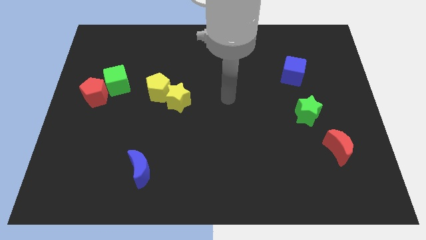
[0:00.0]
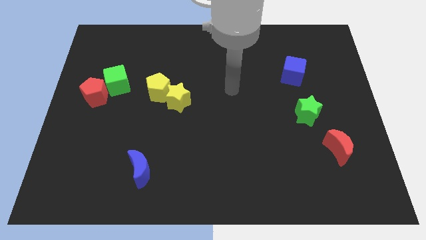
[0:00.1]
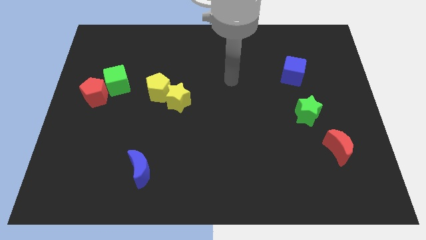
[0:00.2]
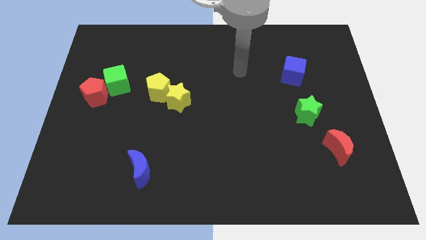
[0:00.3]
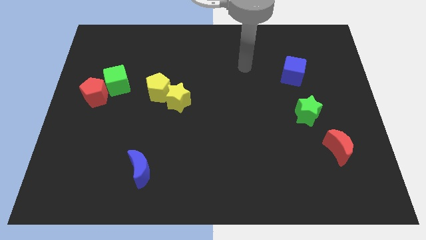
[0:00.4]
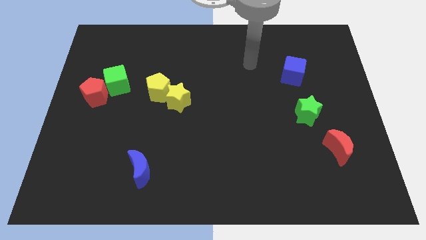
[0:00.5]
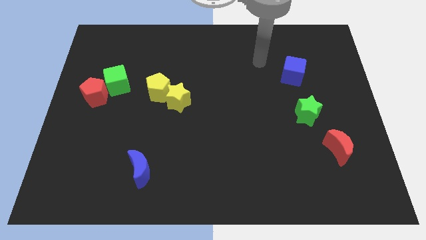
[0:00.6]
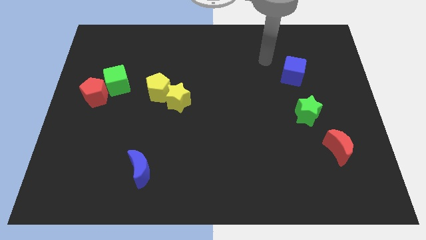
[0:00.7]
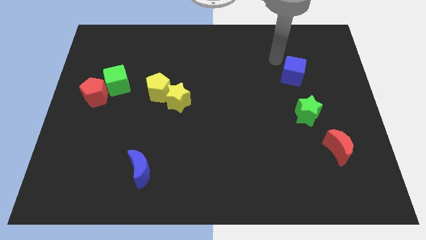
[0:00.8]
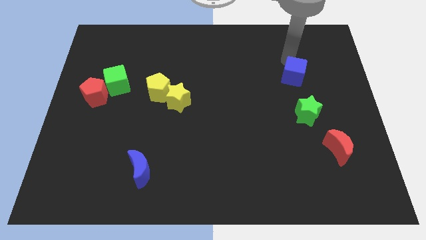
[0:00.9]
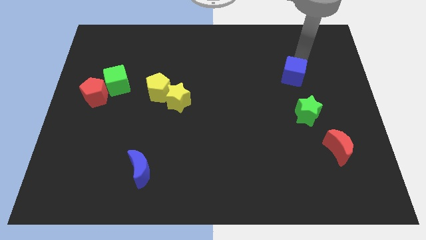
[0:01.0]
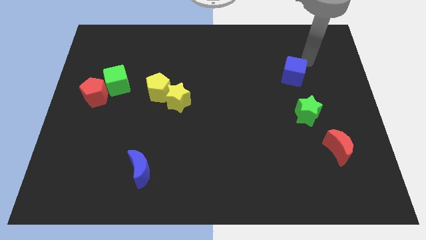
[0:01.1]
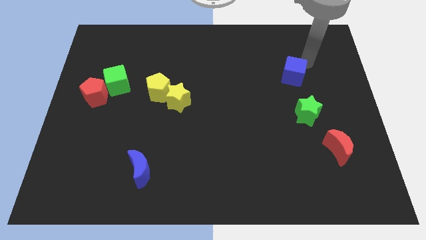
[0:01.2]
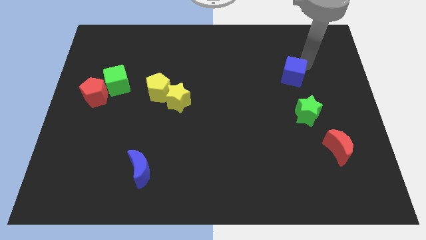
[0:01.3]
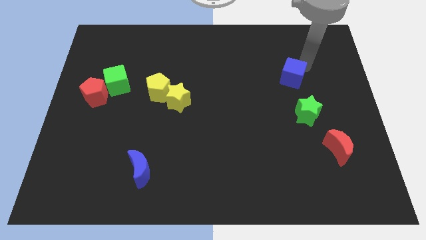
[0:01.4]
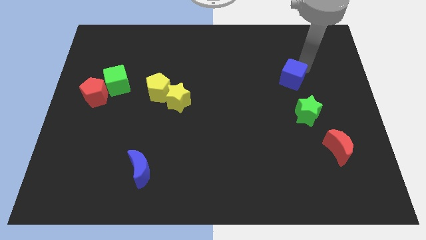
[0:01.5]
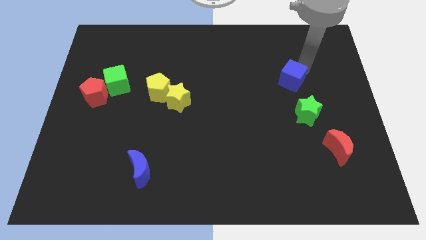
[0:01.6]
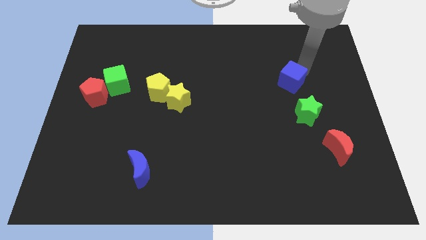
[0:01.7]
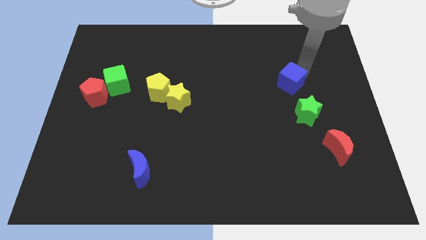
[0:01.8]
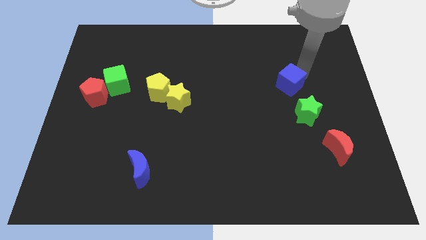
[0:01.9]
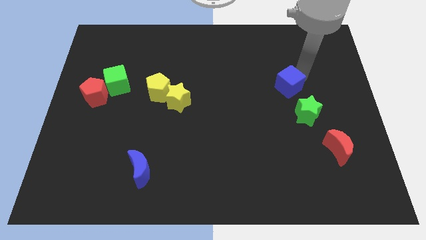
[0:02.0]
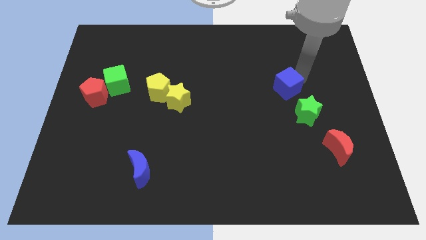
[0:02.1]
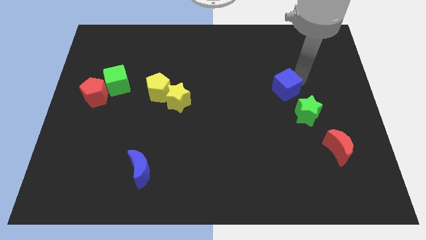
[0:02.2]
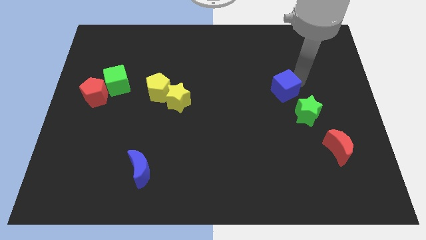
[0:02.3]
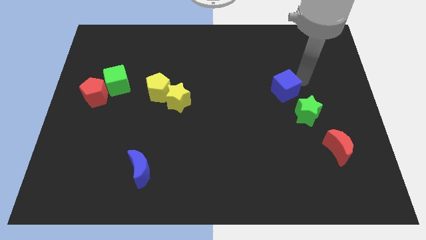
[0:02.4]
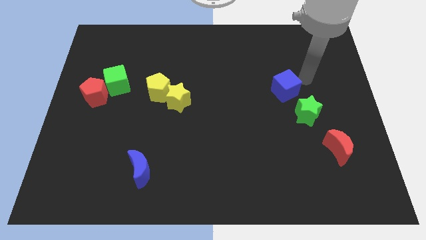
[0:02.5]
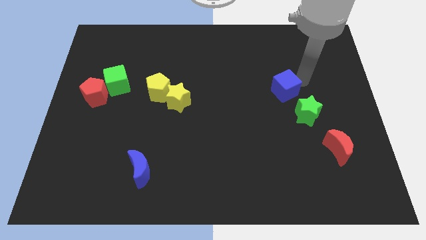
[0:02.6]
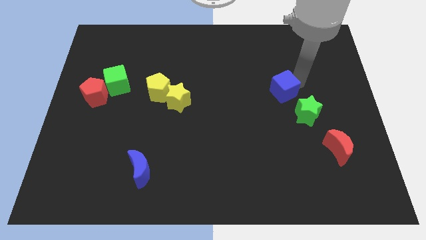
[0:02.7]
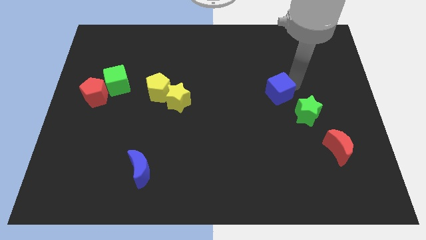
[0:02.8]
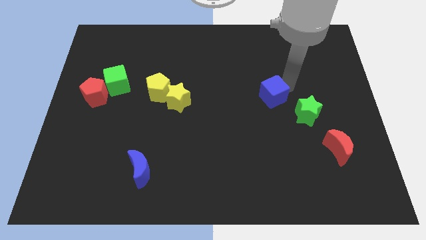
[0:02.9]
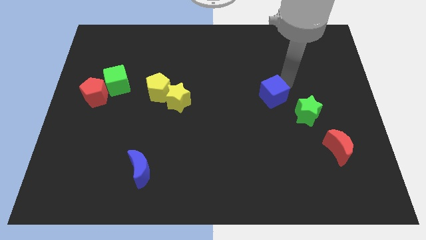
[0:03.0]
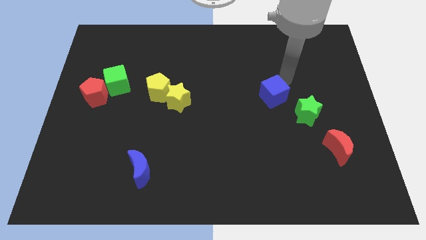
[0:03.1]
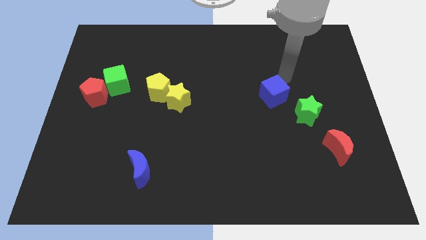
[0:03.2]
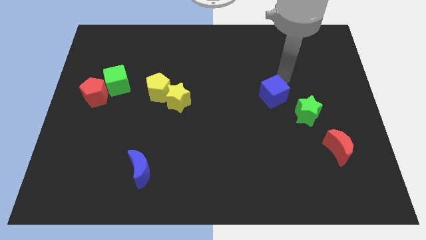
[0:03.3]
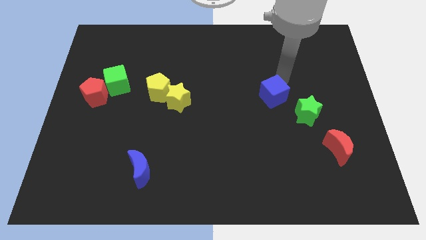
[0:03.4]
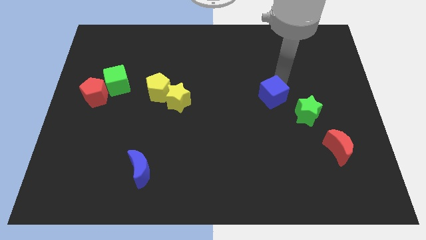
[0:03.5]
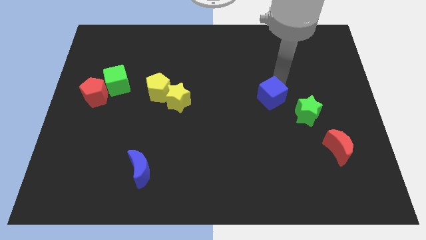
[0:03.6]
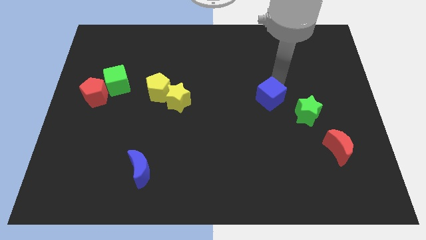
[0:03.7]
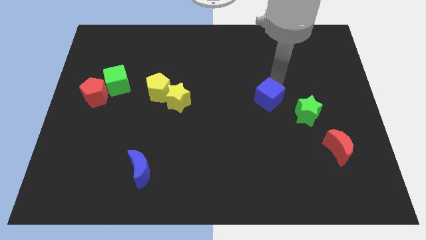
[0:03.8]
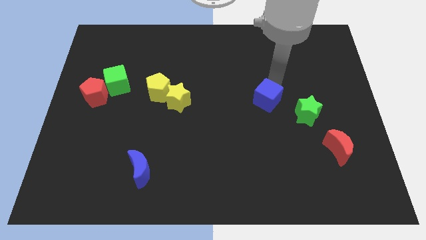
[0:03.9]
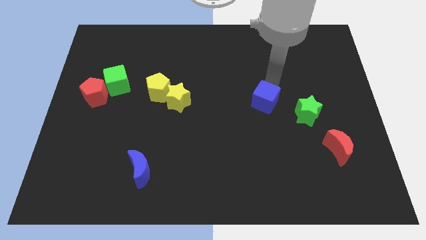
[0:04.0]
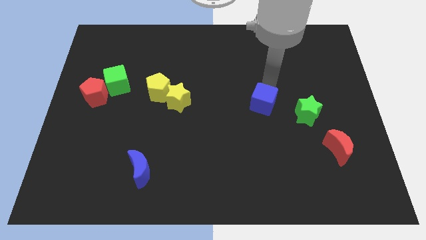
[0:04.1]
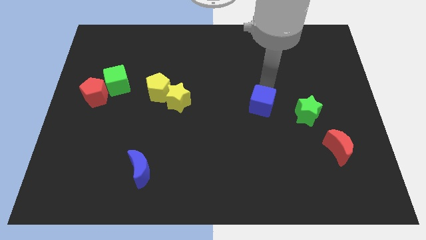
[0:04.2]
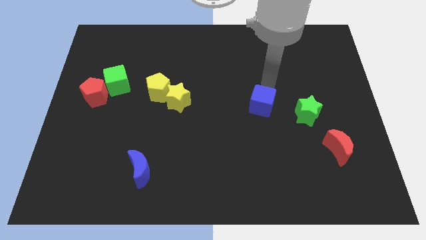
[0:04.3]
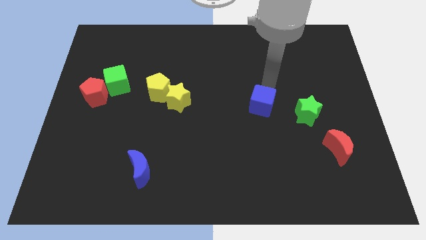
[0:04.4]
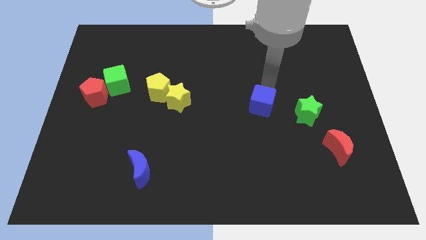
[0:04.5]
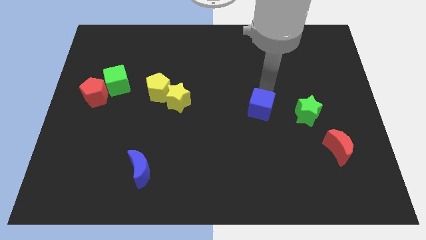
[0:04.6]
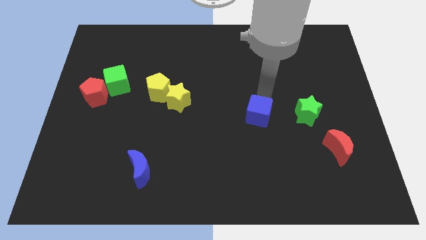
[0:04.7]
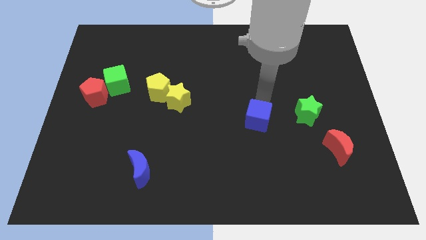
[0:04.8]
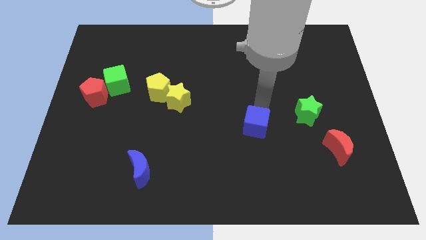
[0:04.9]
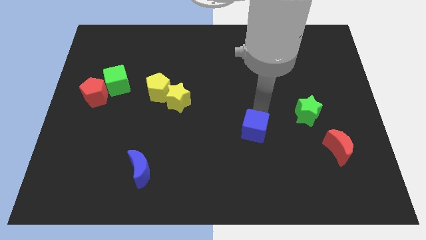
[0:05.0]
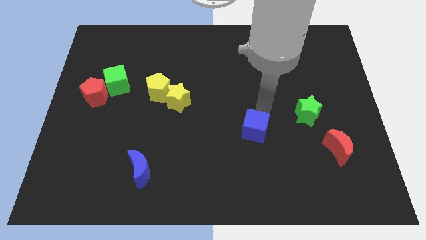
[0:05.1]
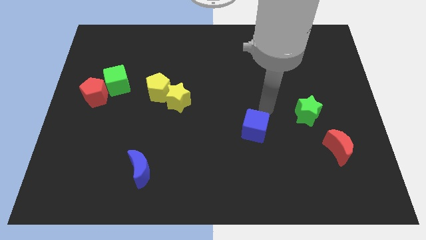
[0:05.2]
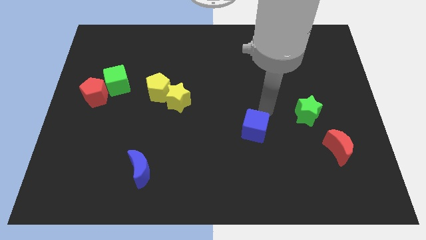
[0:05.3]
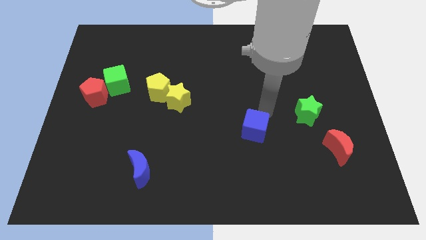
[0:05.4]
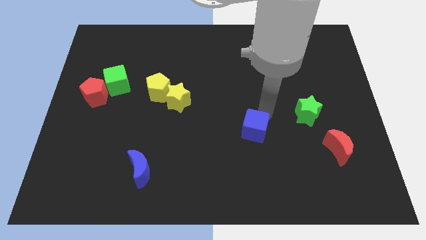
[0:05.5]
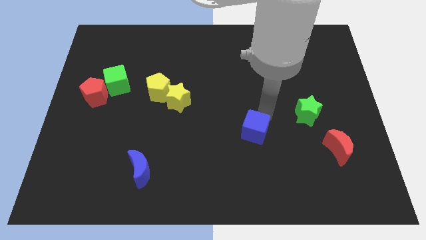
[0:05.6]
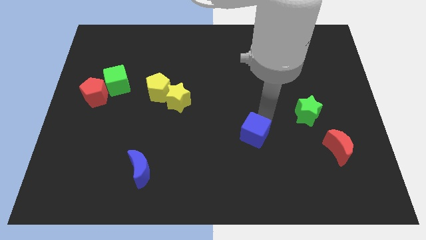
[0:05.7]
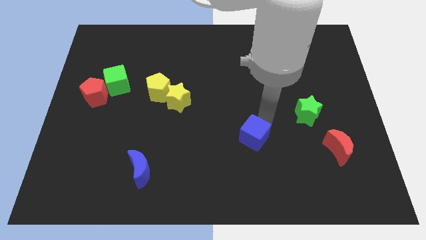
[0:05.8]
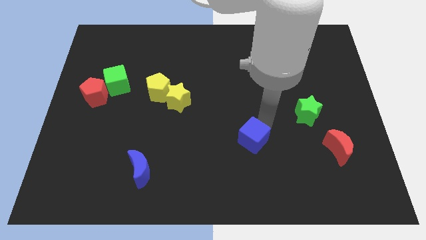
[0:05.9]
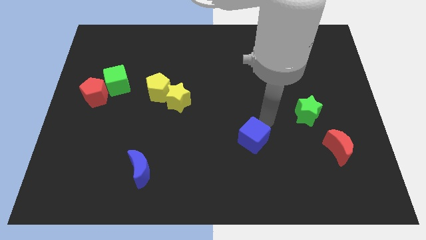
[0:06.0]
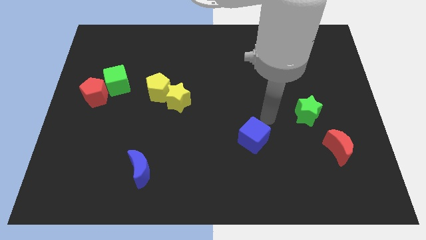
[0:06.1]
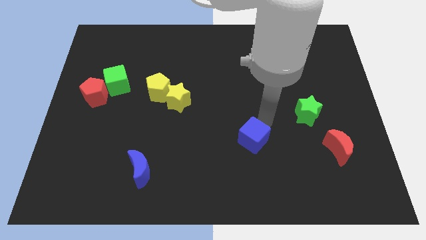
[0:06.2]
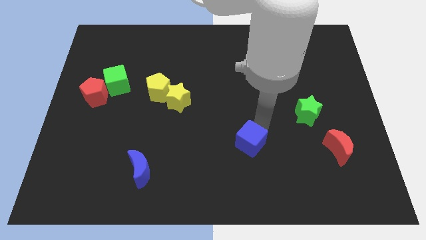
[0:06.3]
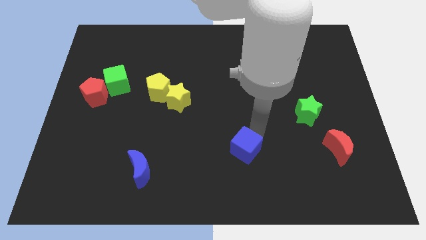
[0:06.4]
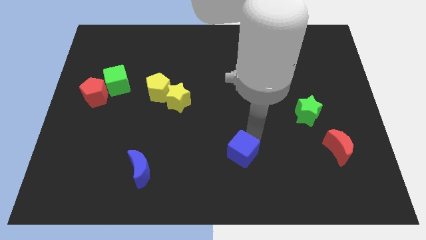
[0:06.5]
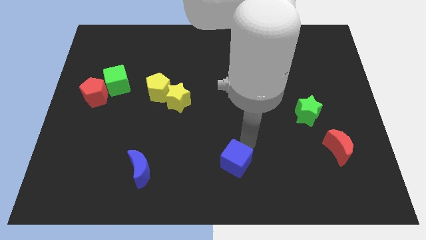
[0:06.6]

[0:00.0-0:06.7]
move the blue cube to the bottom
